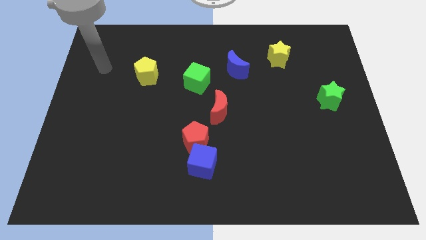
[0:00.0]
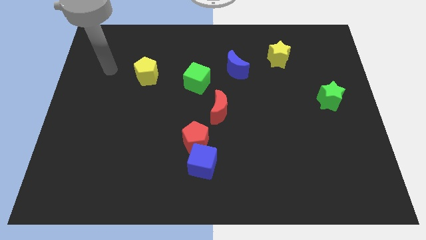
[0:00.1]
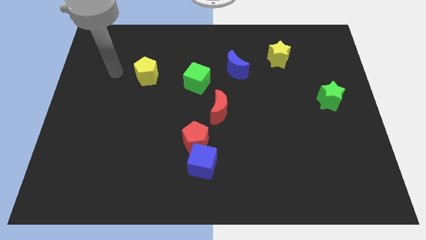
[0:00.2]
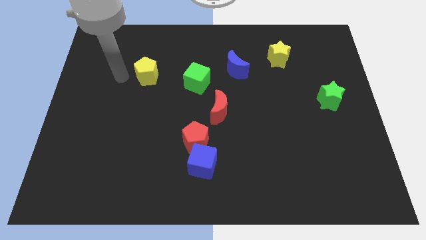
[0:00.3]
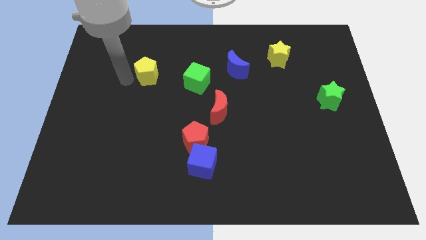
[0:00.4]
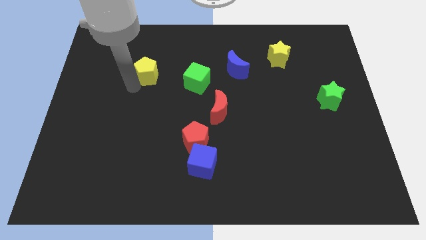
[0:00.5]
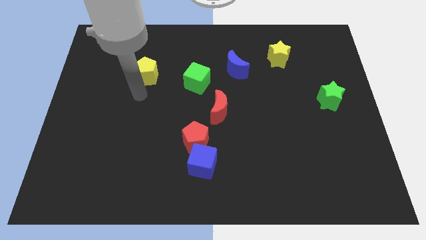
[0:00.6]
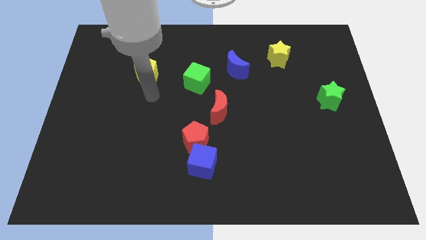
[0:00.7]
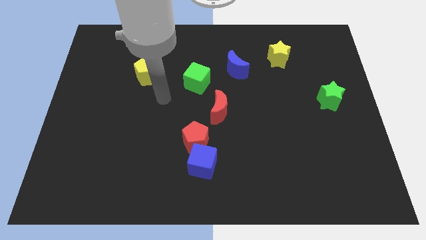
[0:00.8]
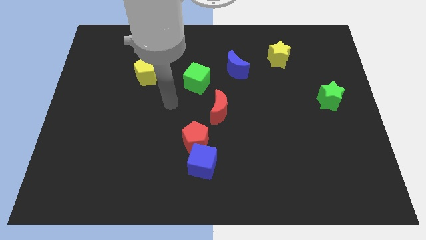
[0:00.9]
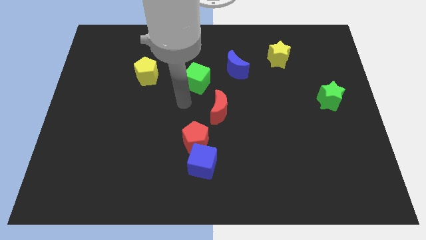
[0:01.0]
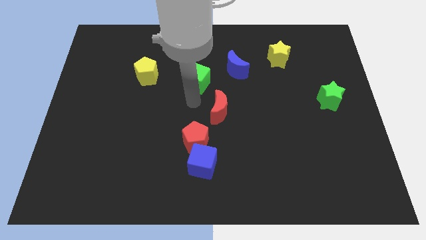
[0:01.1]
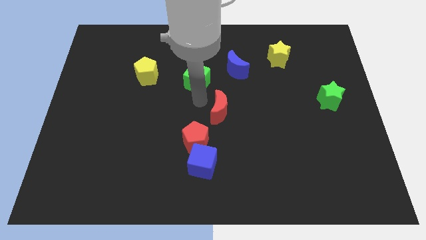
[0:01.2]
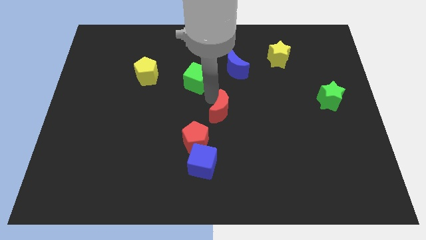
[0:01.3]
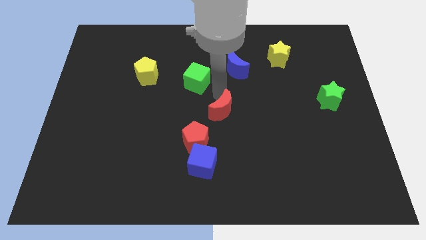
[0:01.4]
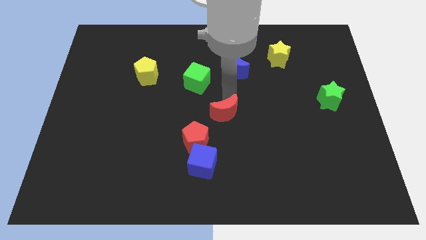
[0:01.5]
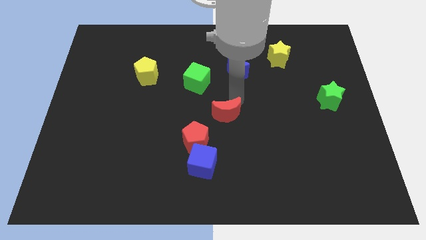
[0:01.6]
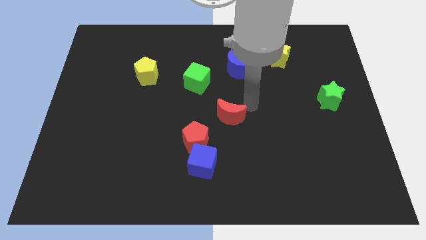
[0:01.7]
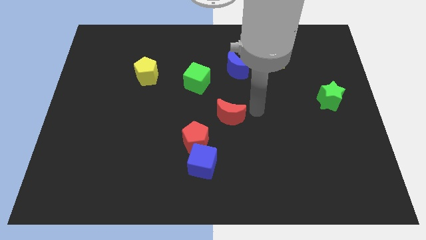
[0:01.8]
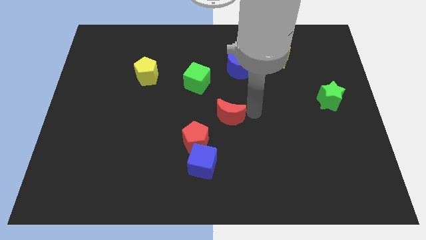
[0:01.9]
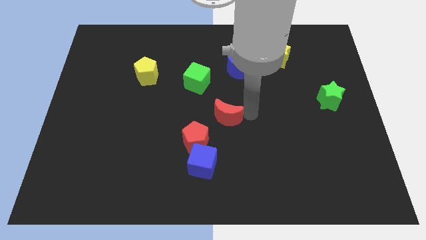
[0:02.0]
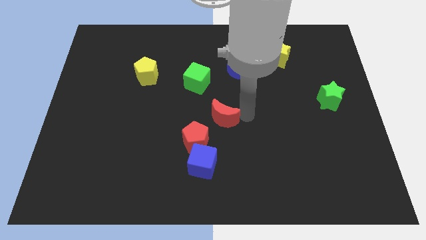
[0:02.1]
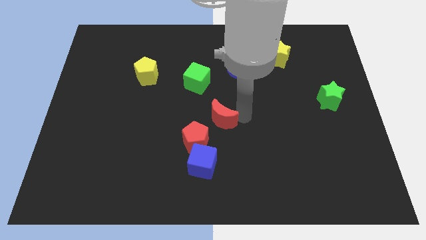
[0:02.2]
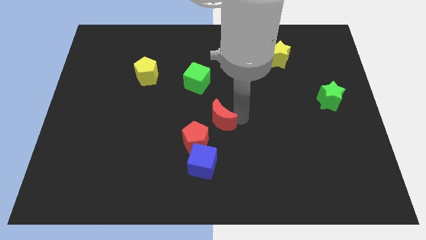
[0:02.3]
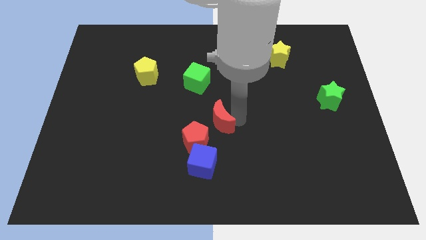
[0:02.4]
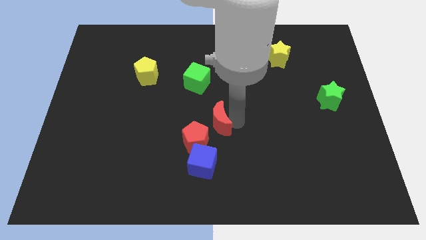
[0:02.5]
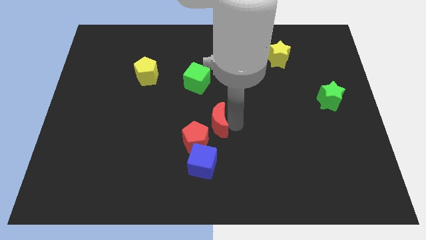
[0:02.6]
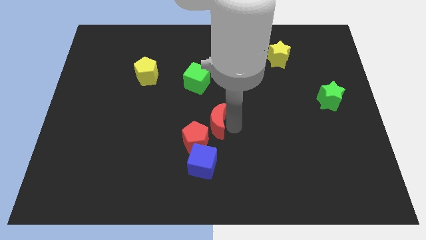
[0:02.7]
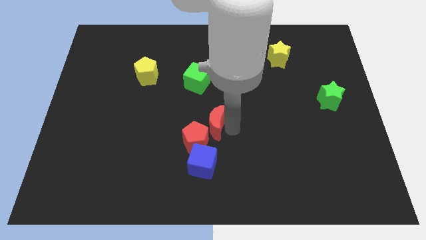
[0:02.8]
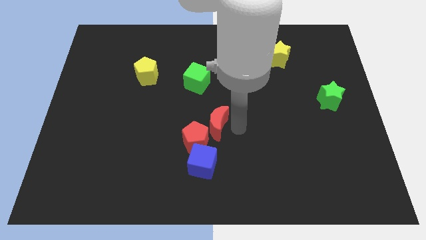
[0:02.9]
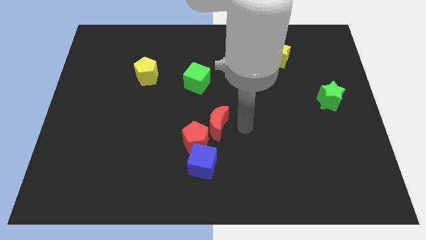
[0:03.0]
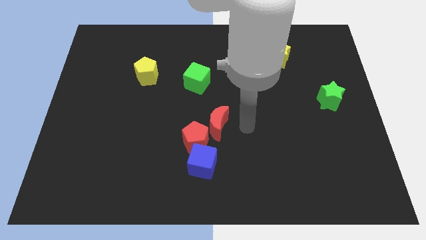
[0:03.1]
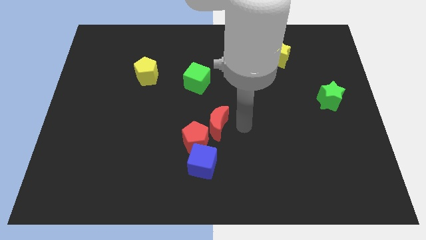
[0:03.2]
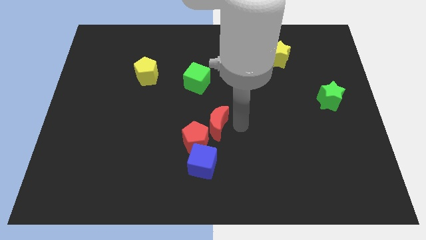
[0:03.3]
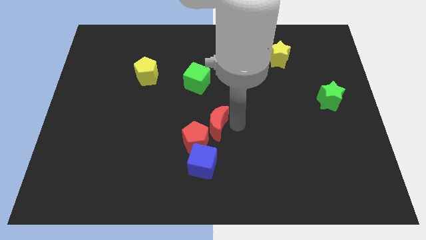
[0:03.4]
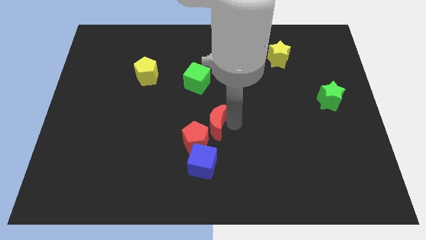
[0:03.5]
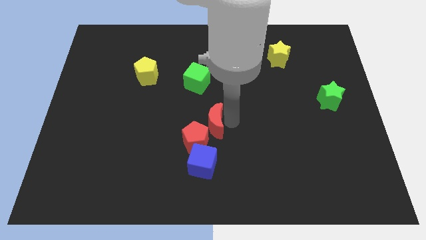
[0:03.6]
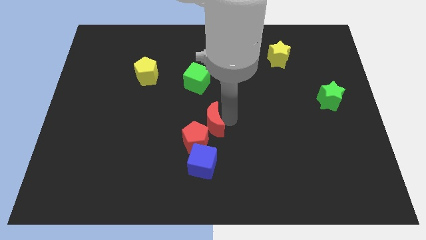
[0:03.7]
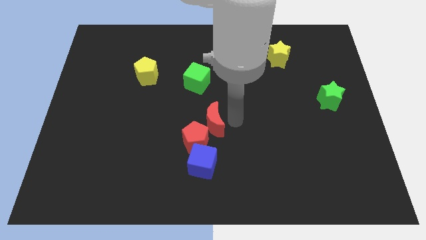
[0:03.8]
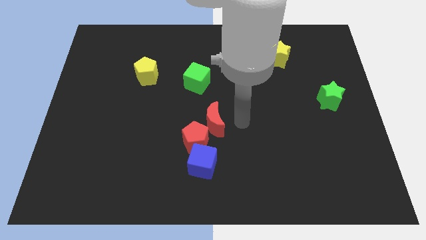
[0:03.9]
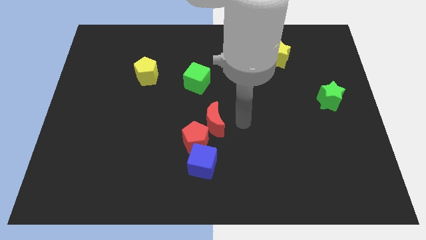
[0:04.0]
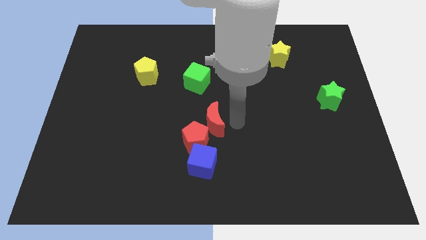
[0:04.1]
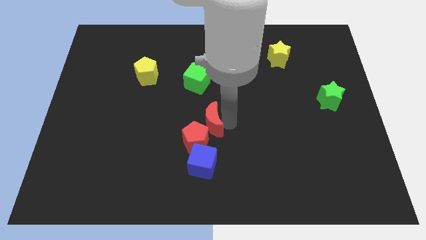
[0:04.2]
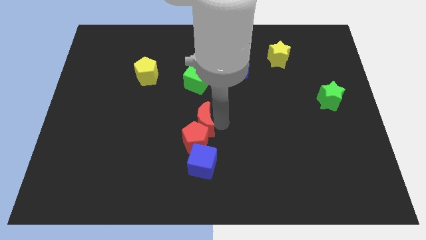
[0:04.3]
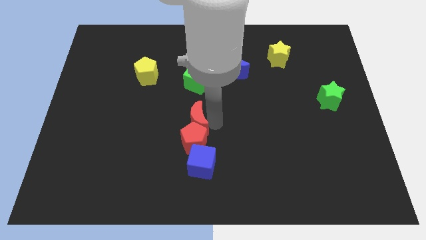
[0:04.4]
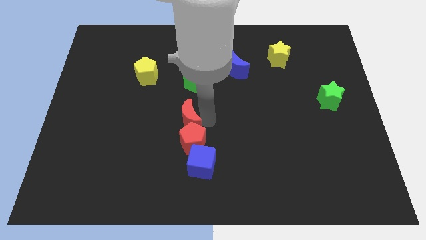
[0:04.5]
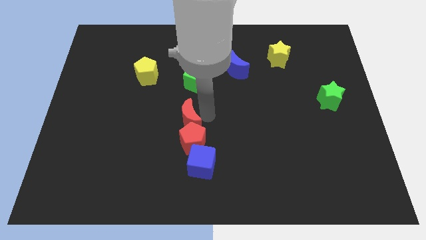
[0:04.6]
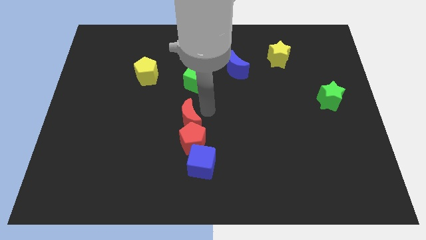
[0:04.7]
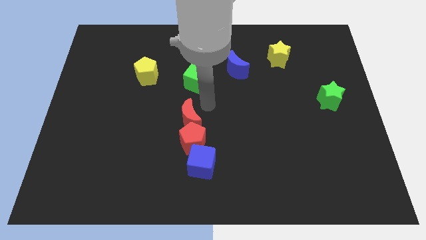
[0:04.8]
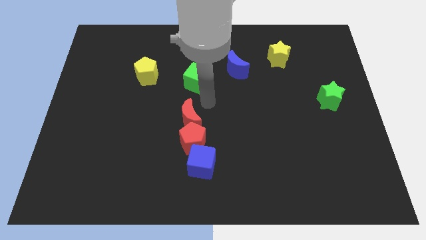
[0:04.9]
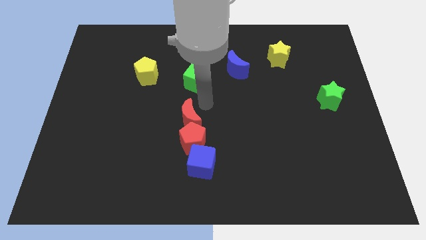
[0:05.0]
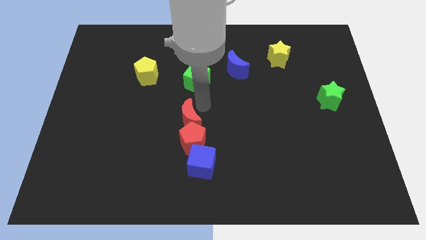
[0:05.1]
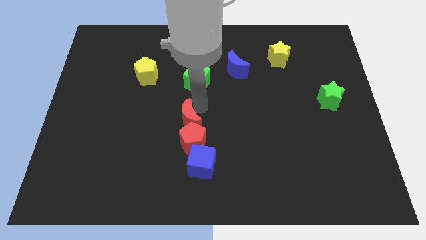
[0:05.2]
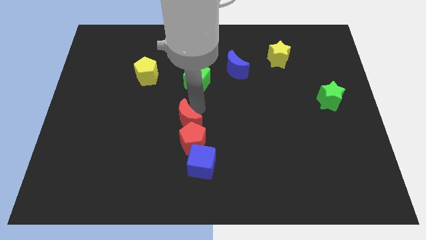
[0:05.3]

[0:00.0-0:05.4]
push the red moon a bit down and left diagonally

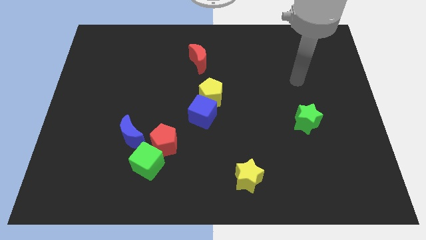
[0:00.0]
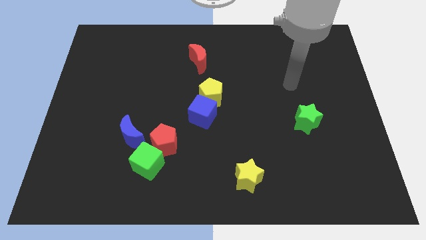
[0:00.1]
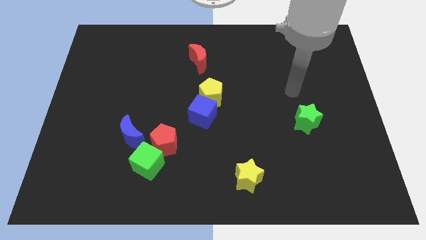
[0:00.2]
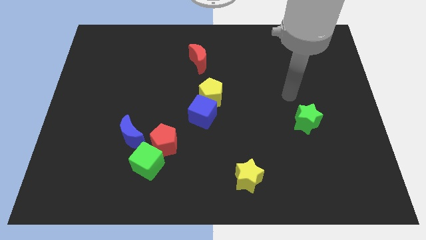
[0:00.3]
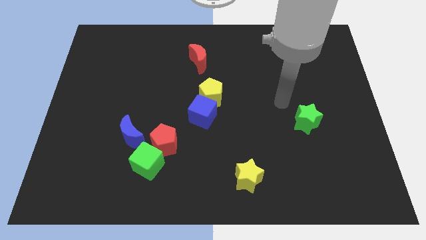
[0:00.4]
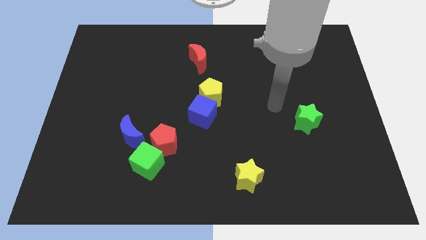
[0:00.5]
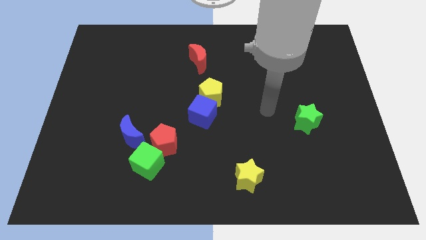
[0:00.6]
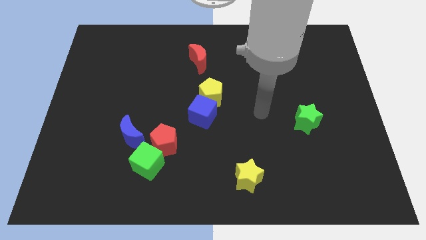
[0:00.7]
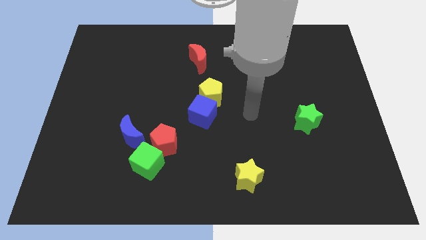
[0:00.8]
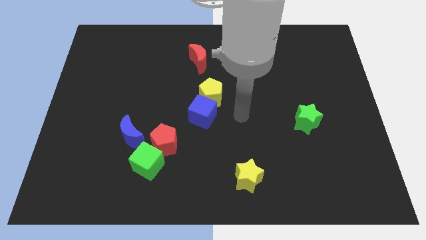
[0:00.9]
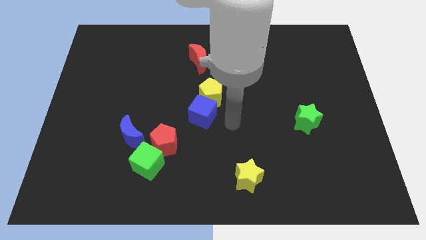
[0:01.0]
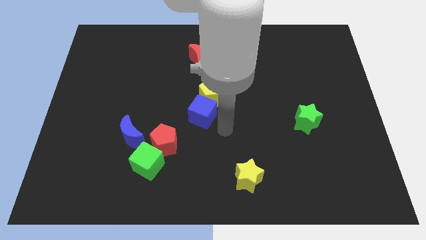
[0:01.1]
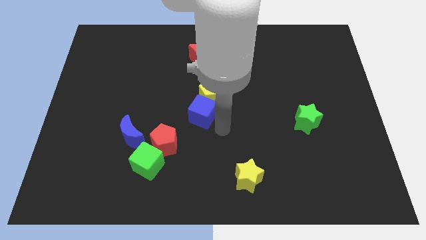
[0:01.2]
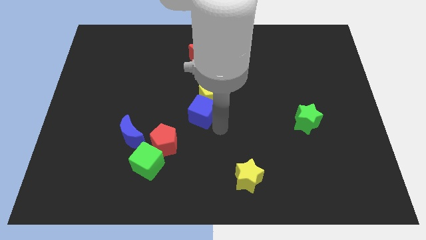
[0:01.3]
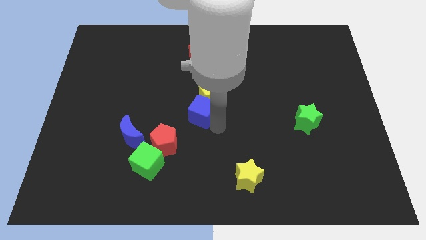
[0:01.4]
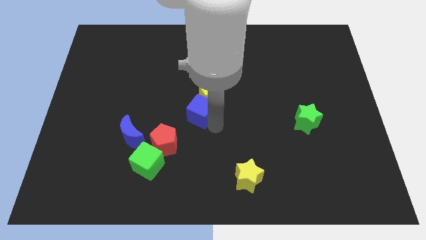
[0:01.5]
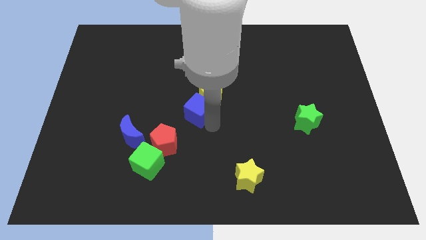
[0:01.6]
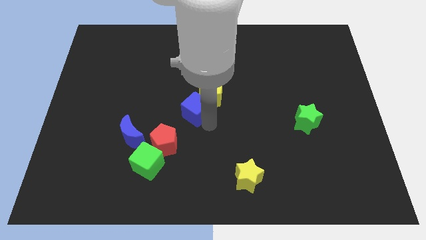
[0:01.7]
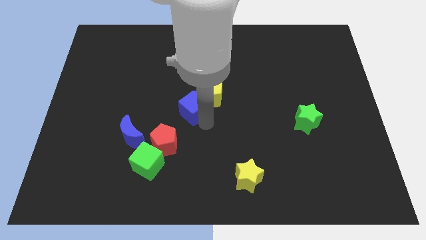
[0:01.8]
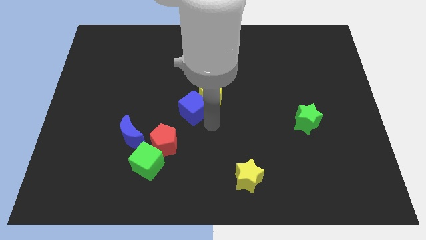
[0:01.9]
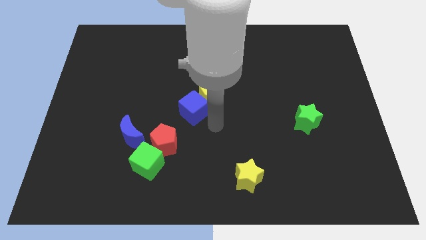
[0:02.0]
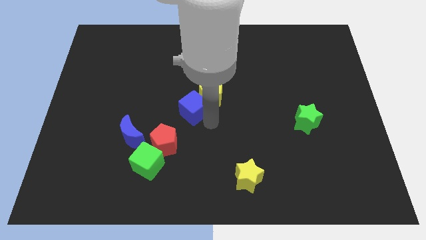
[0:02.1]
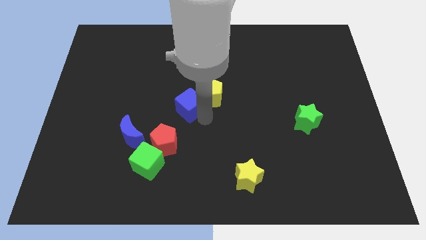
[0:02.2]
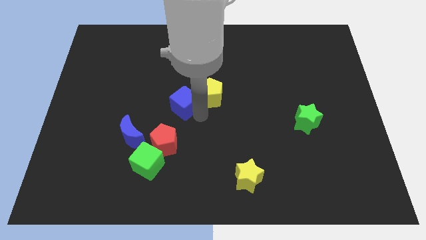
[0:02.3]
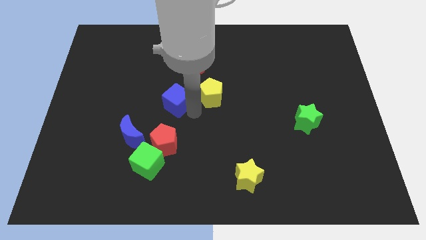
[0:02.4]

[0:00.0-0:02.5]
slightly push the blue cube diagonally up and left
